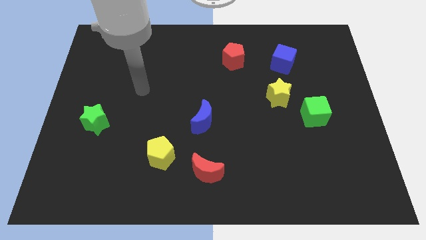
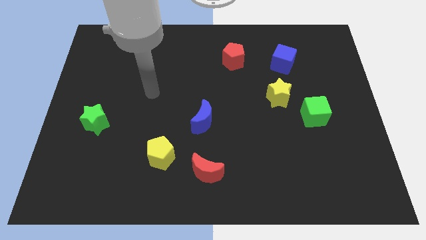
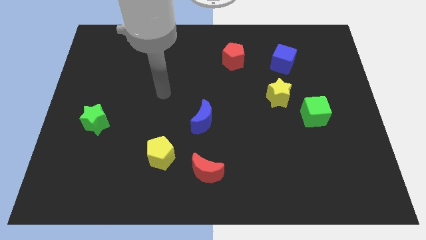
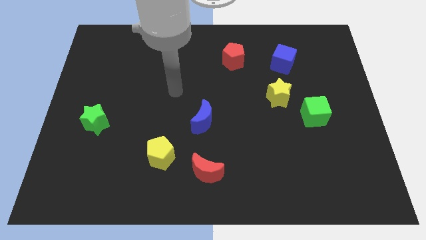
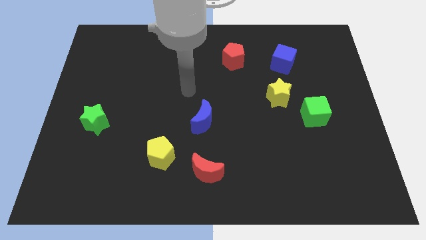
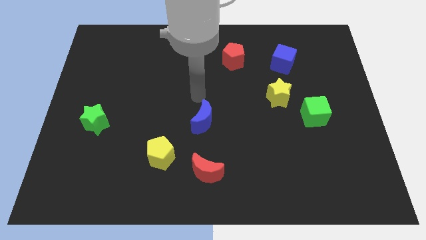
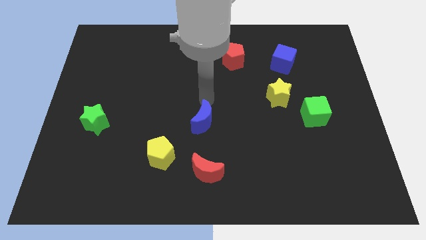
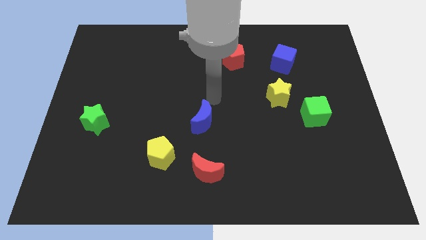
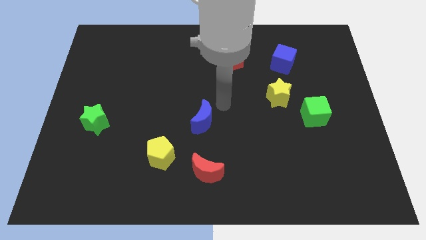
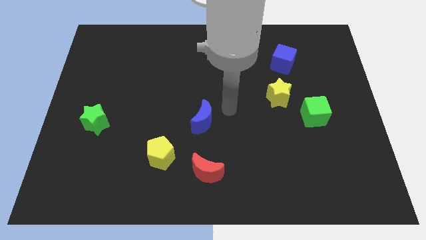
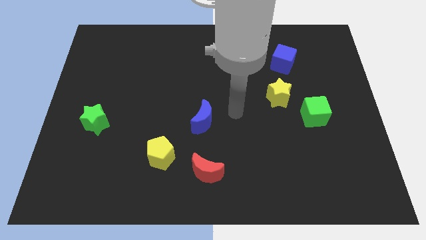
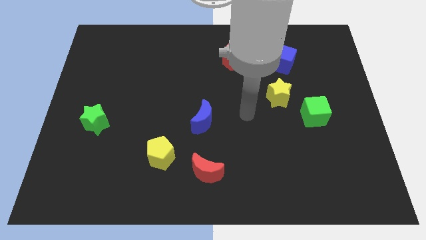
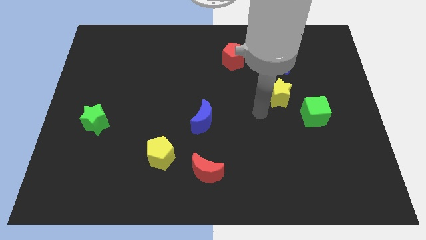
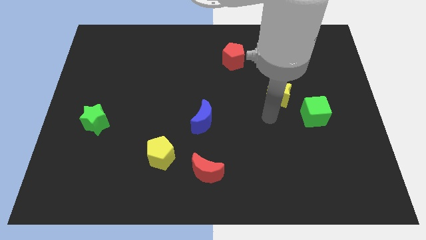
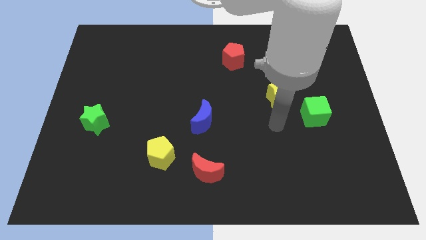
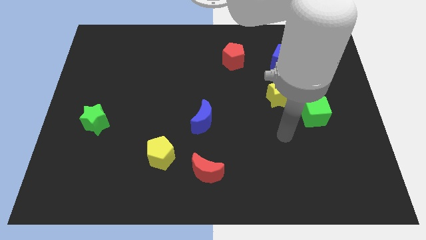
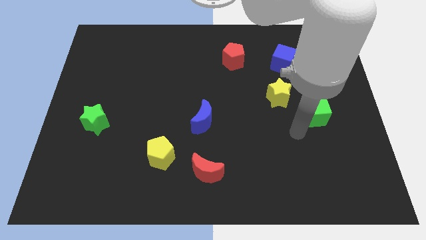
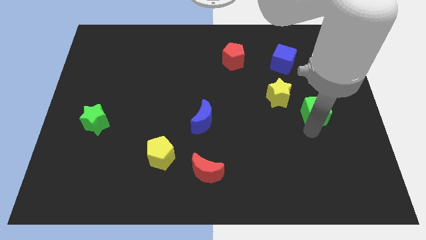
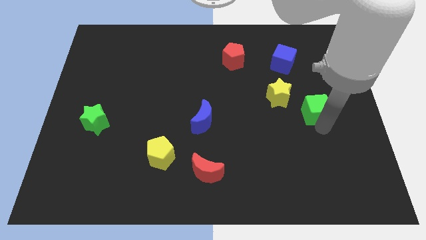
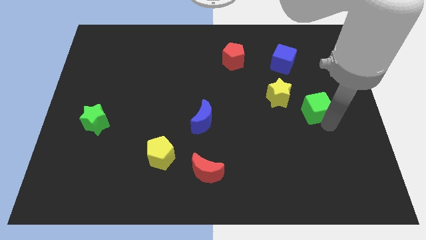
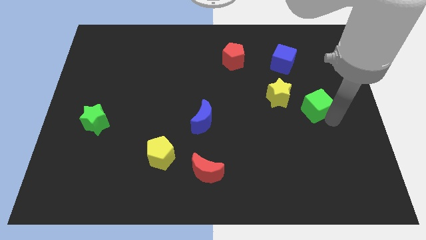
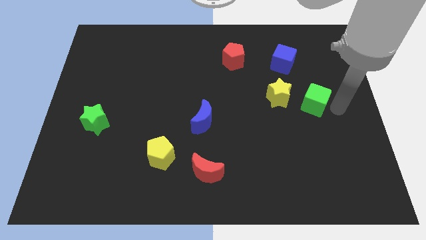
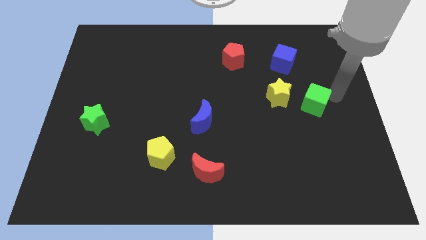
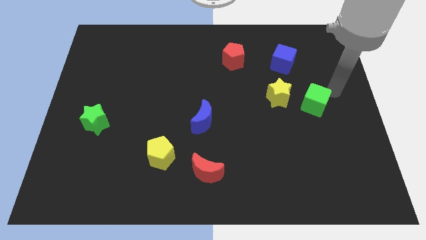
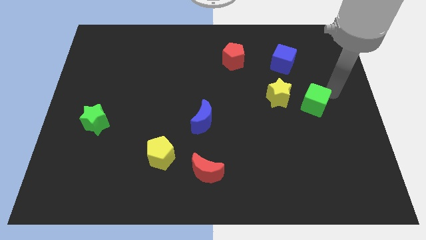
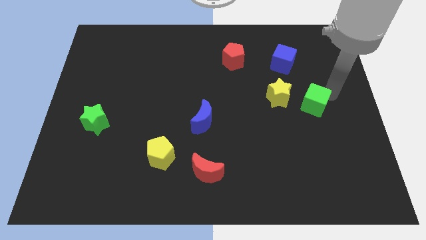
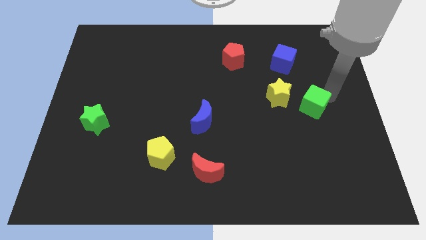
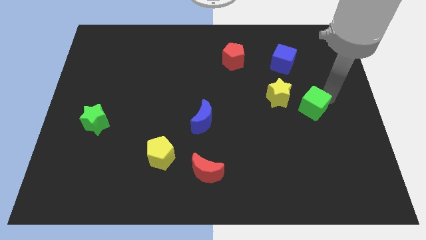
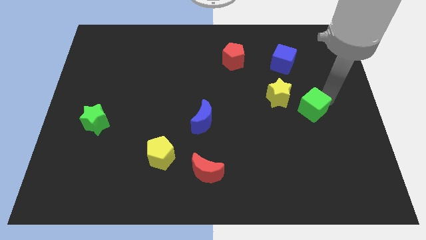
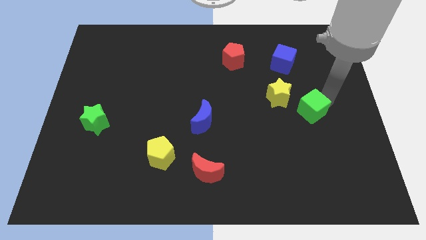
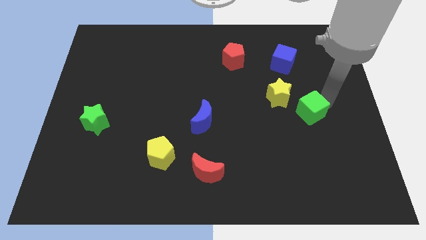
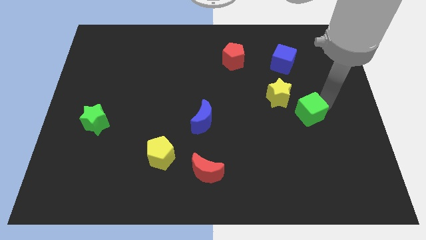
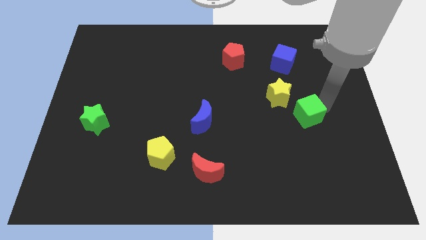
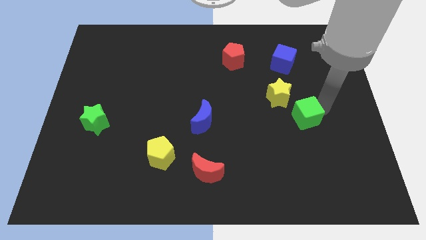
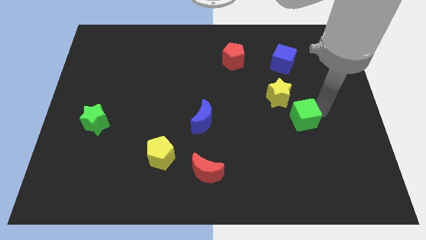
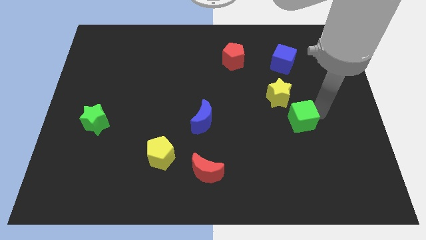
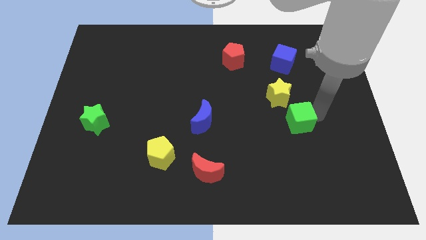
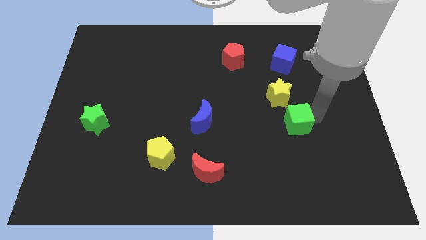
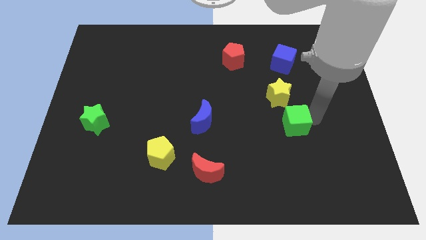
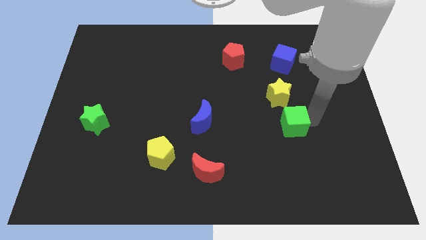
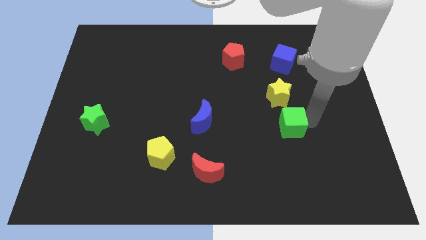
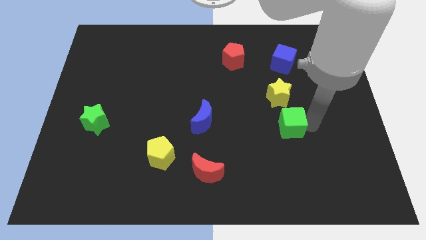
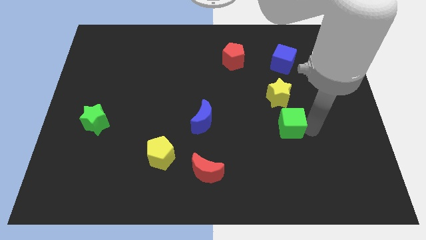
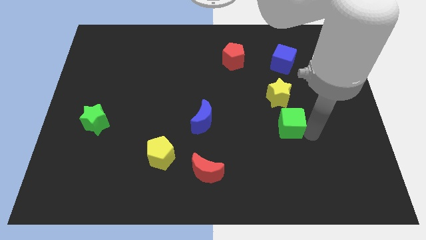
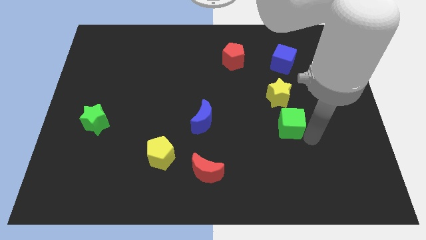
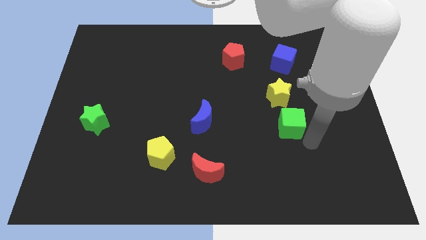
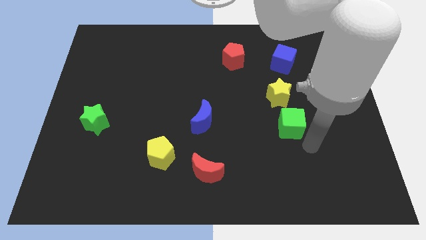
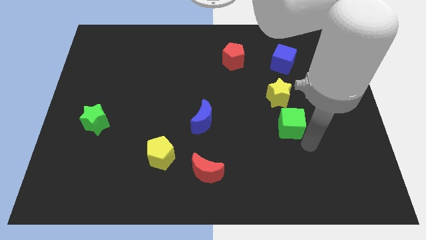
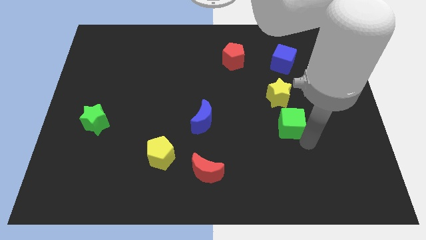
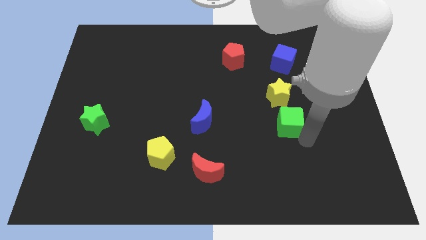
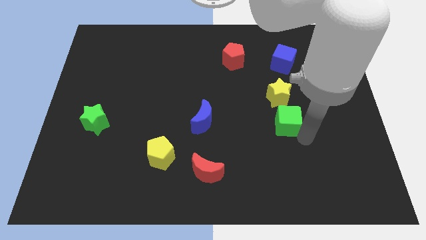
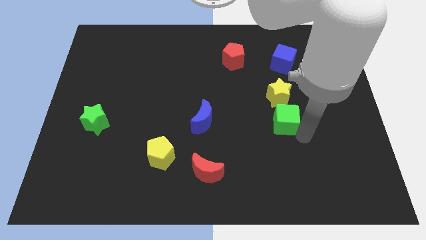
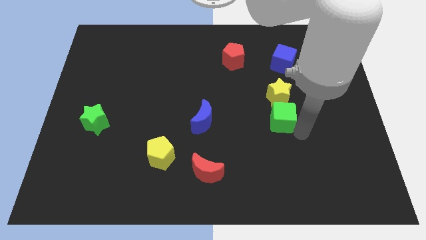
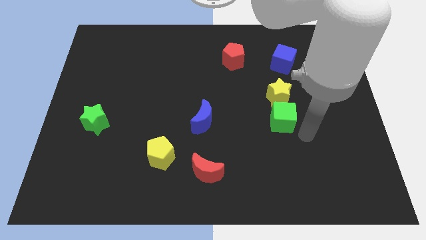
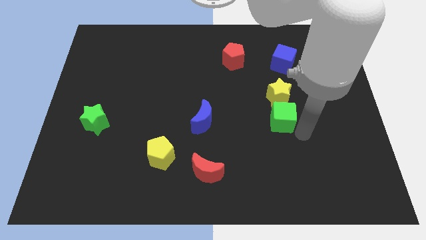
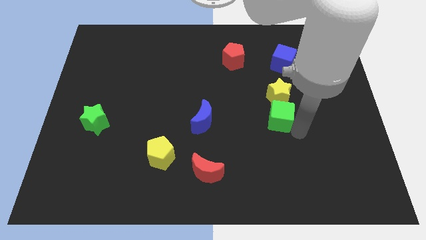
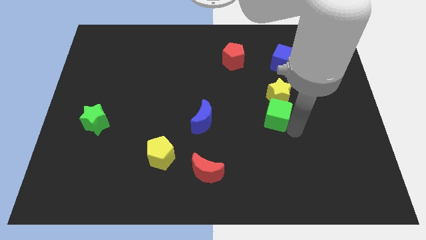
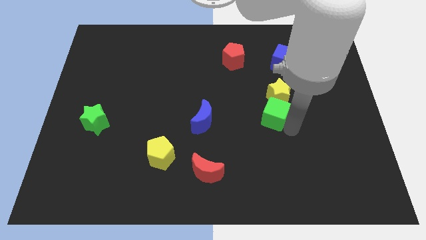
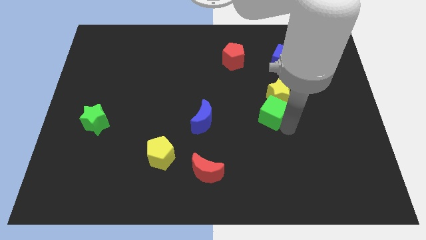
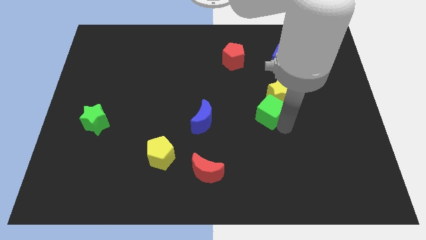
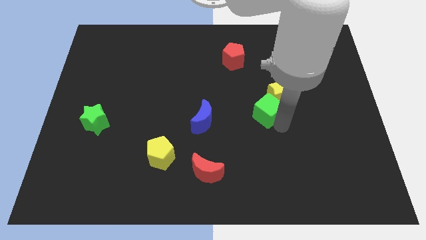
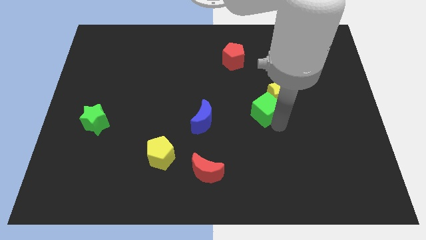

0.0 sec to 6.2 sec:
slide the green cube to the middle
